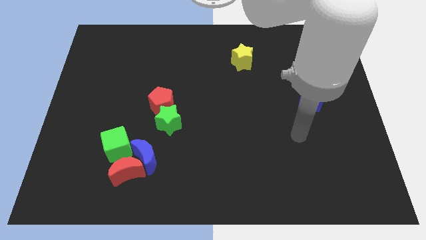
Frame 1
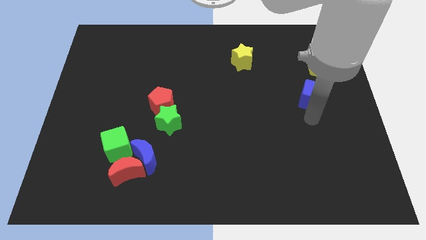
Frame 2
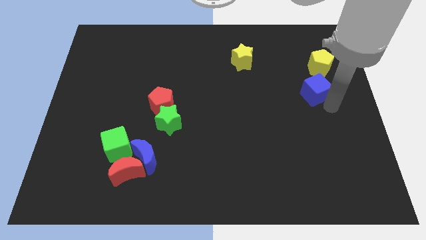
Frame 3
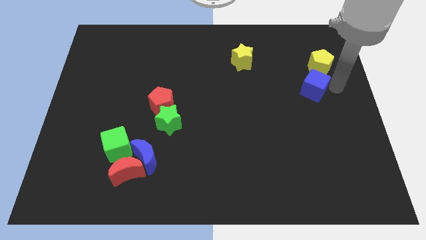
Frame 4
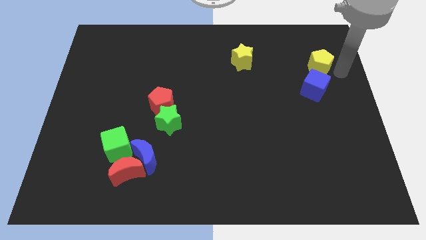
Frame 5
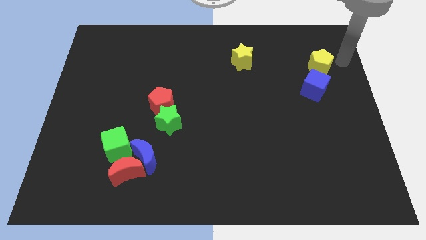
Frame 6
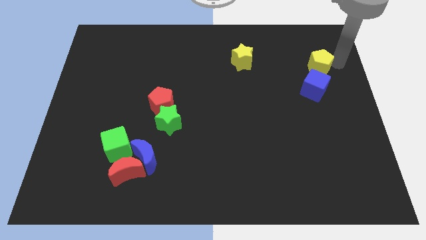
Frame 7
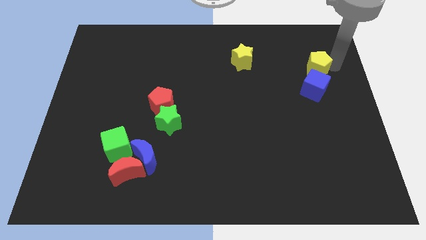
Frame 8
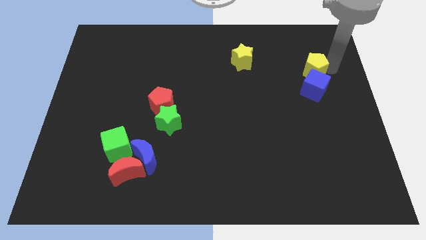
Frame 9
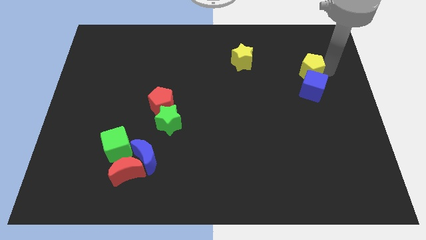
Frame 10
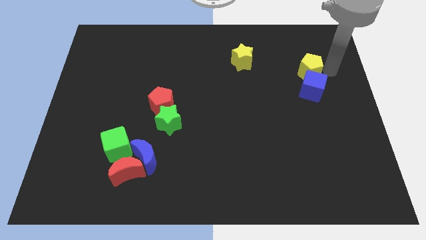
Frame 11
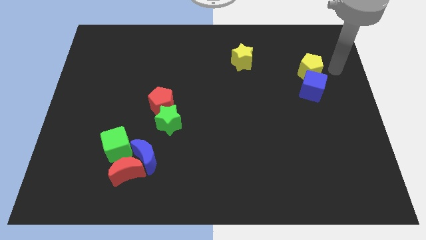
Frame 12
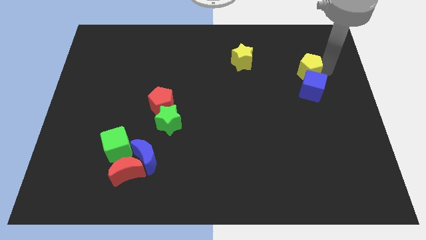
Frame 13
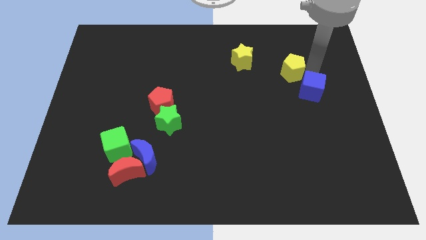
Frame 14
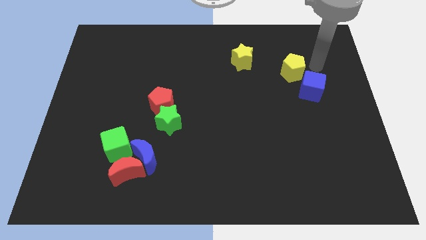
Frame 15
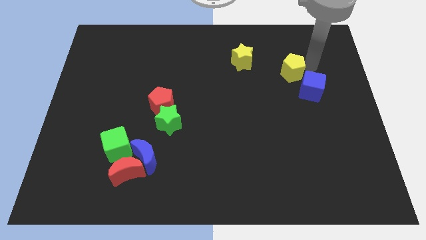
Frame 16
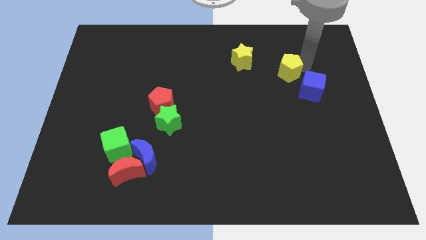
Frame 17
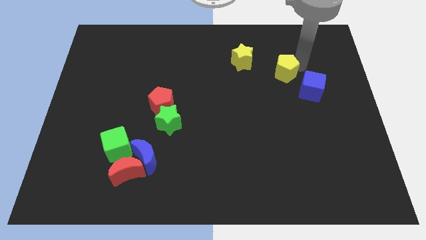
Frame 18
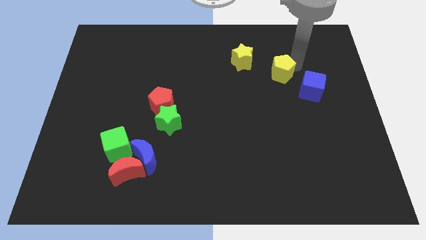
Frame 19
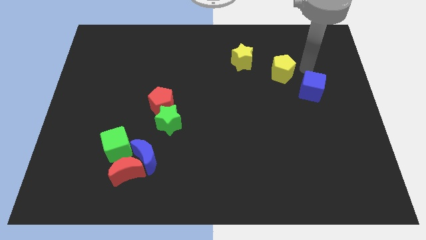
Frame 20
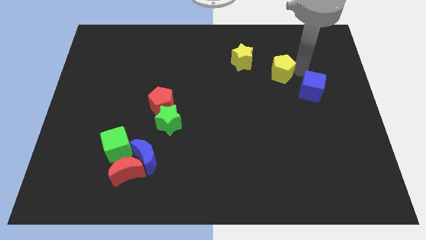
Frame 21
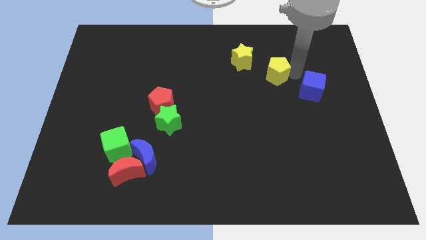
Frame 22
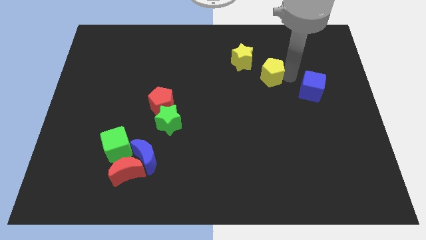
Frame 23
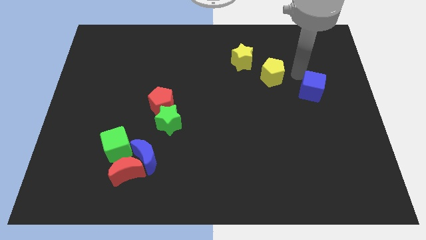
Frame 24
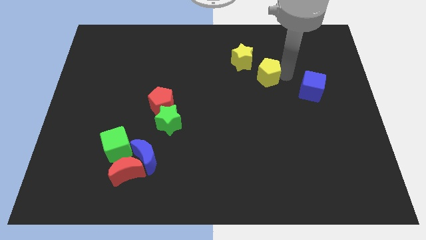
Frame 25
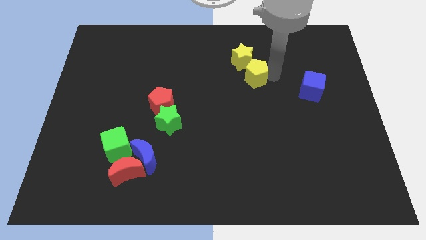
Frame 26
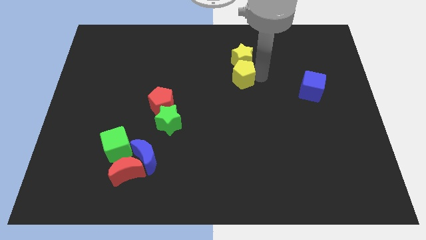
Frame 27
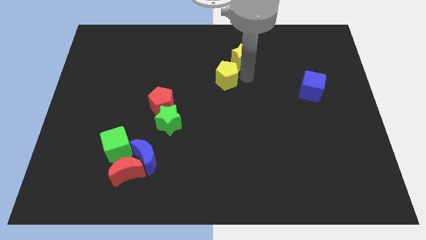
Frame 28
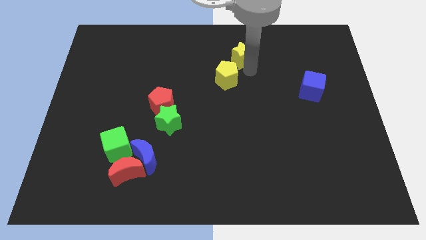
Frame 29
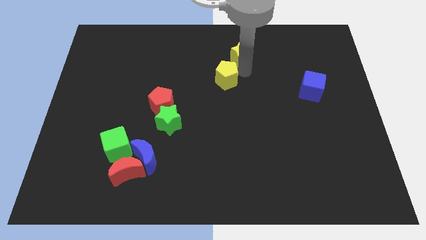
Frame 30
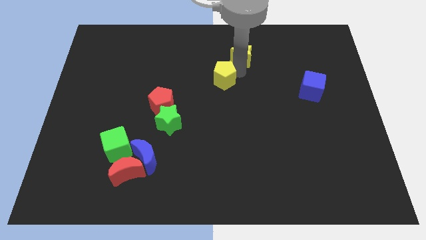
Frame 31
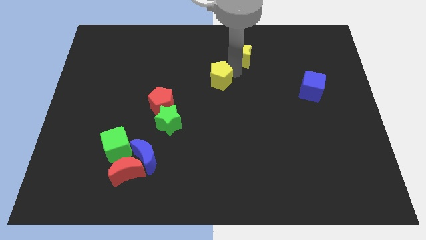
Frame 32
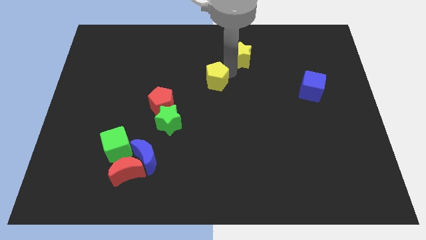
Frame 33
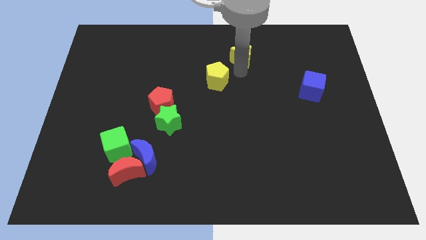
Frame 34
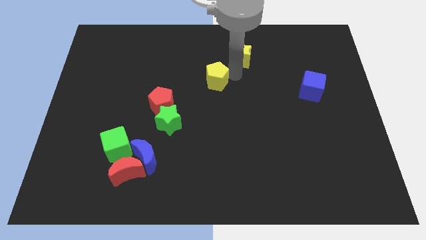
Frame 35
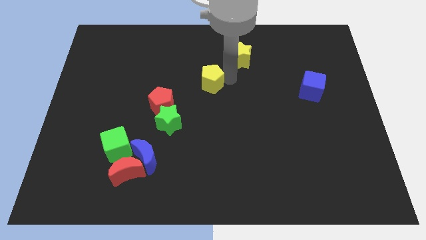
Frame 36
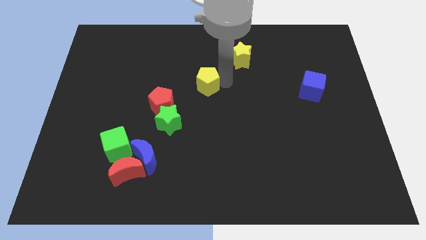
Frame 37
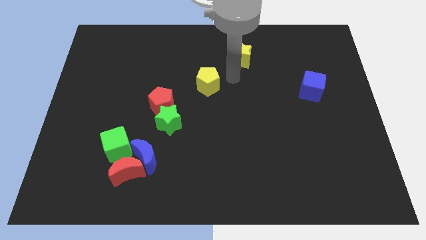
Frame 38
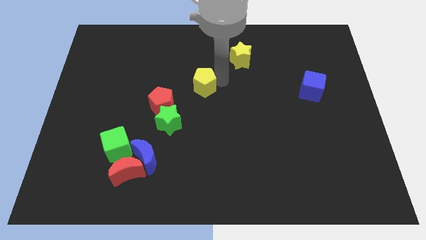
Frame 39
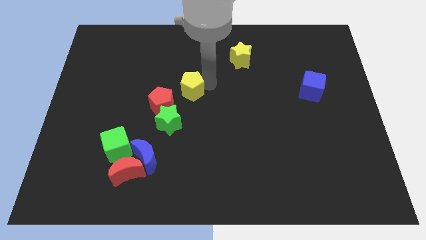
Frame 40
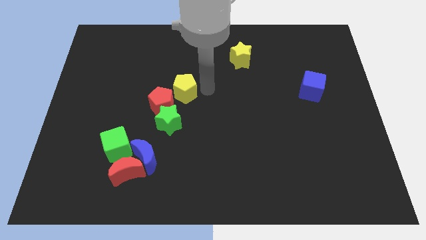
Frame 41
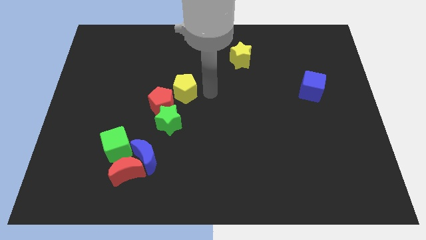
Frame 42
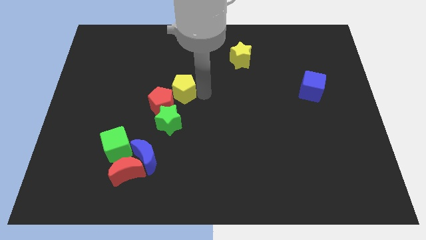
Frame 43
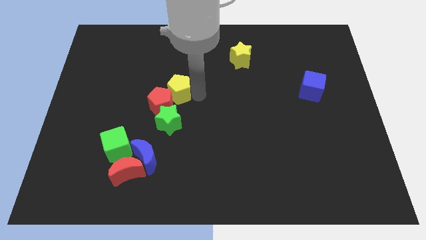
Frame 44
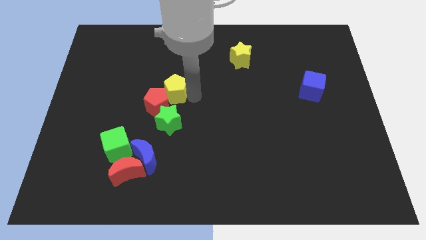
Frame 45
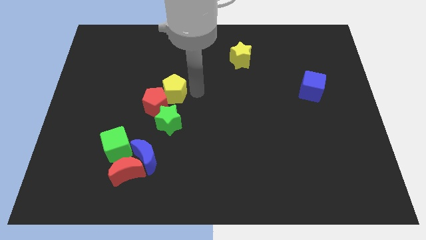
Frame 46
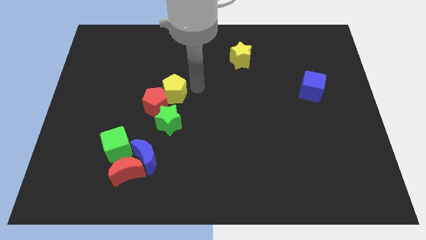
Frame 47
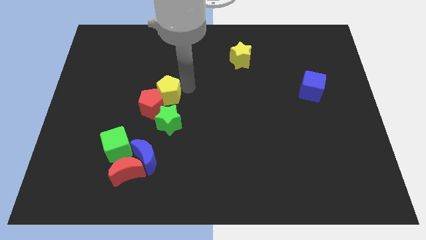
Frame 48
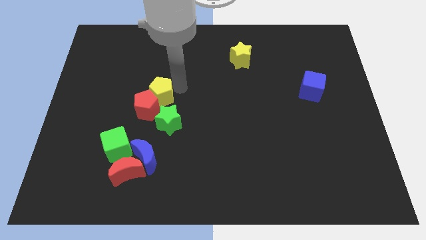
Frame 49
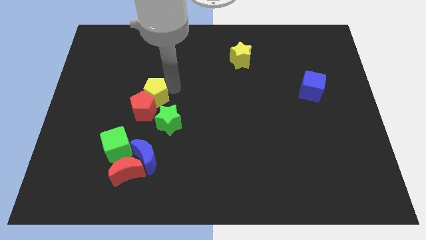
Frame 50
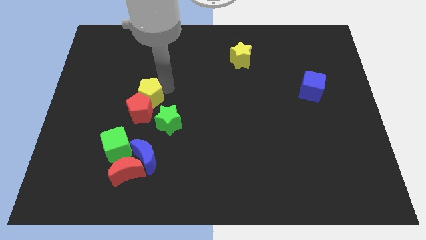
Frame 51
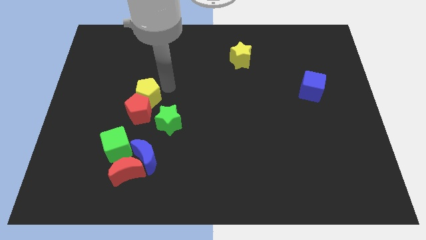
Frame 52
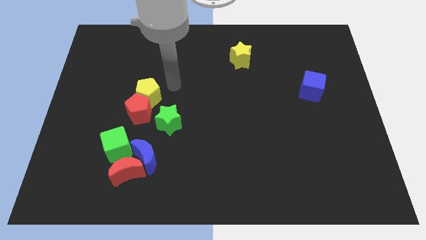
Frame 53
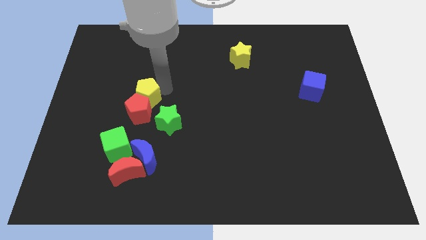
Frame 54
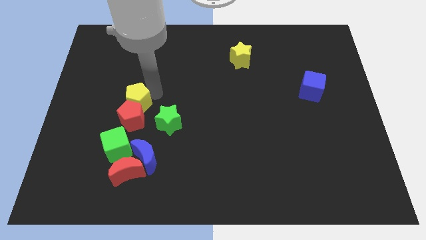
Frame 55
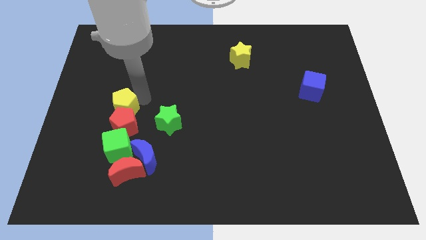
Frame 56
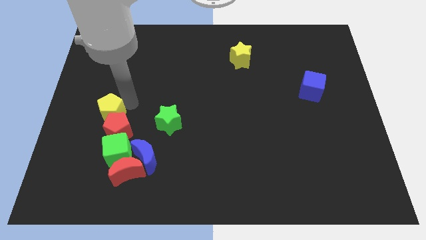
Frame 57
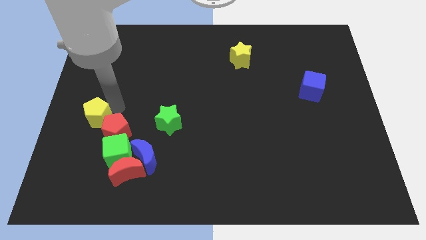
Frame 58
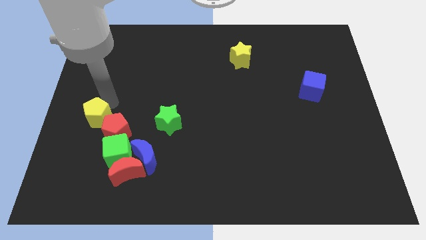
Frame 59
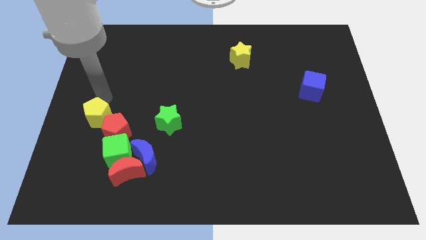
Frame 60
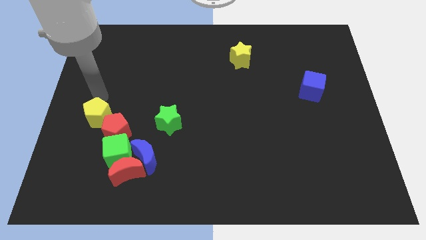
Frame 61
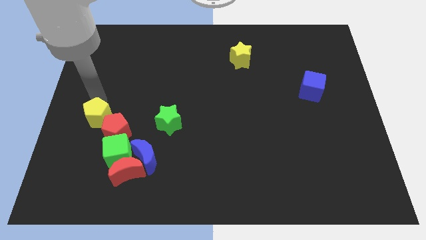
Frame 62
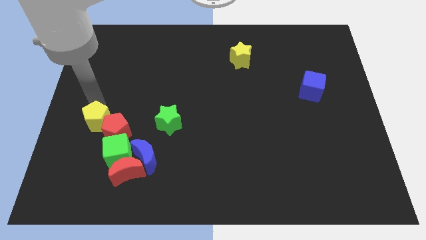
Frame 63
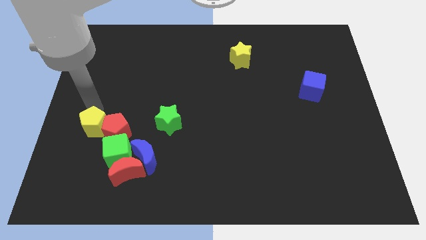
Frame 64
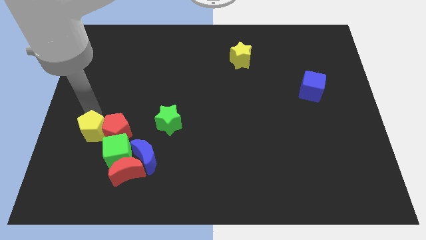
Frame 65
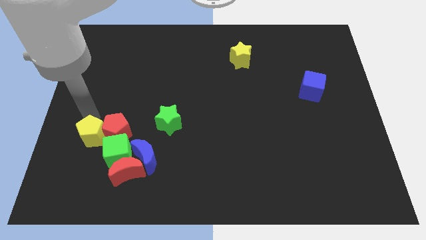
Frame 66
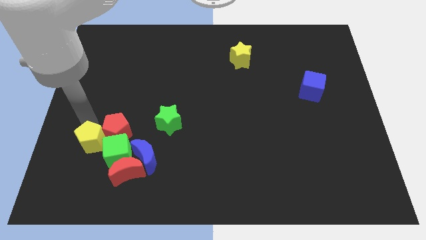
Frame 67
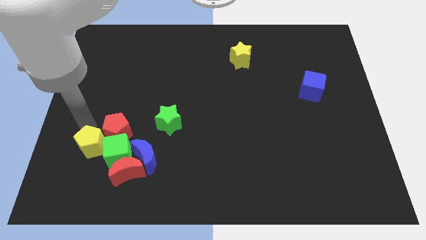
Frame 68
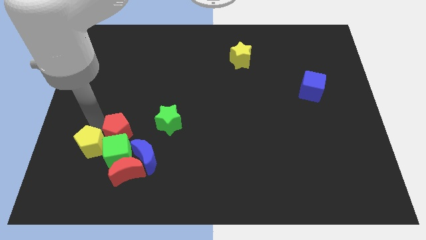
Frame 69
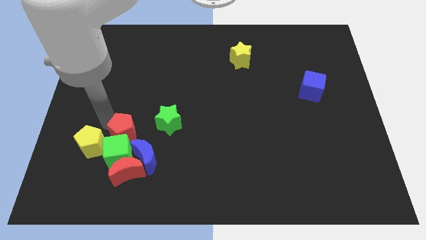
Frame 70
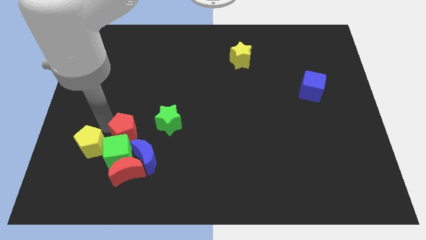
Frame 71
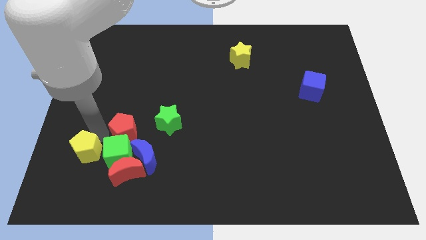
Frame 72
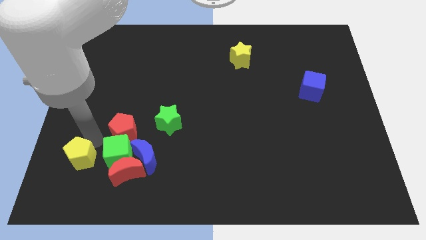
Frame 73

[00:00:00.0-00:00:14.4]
put the yellow pentagon to the left side of the red moon

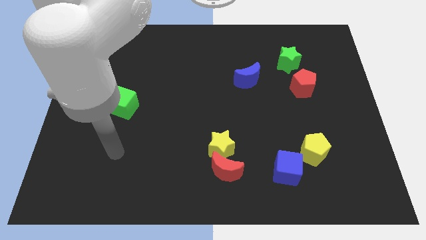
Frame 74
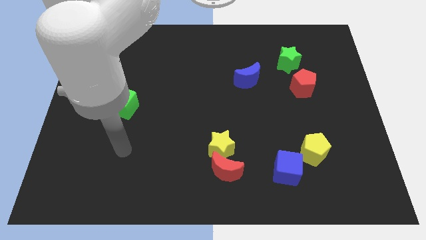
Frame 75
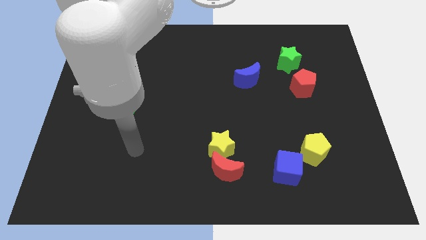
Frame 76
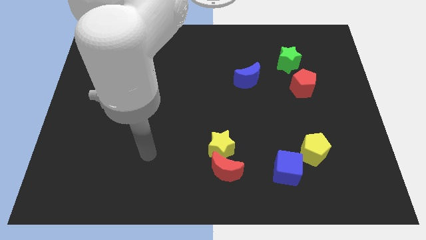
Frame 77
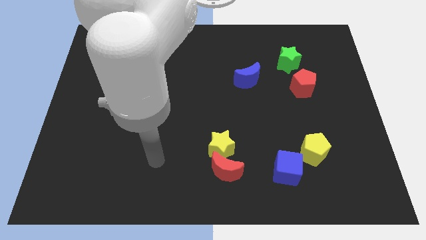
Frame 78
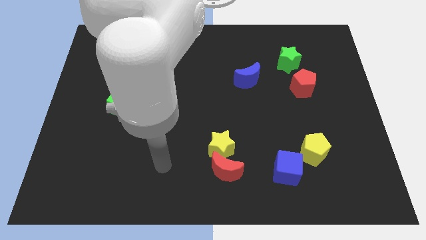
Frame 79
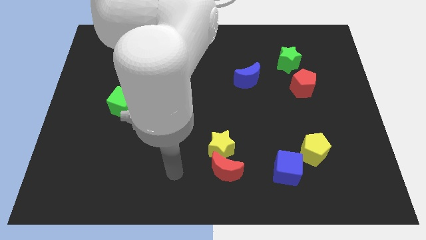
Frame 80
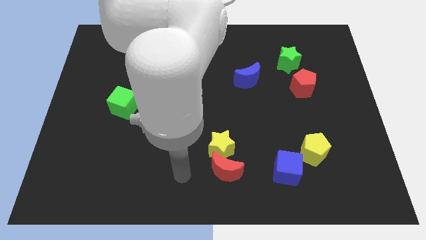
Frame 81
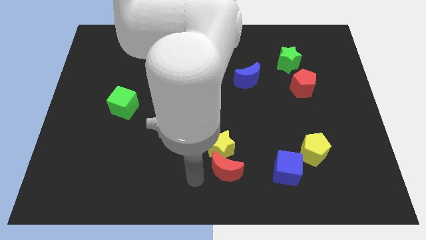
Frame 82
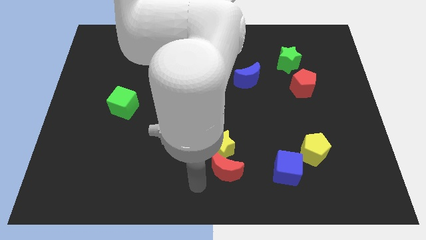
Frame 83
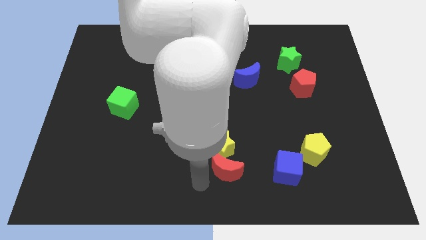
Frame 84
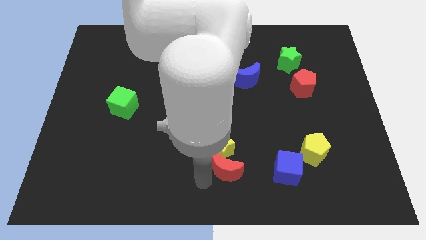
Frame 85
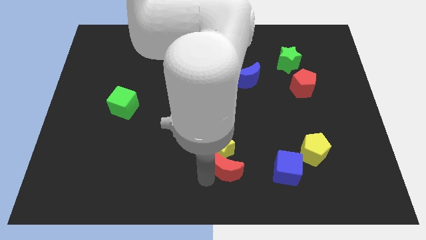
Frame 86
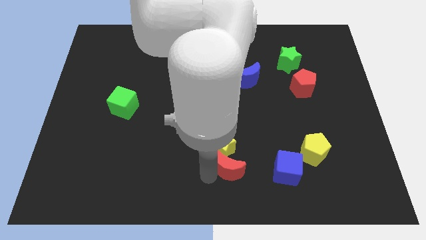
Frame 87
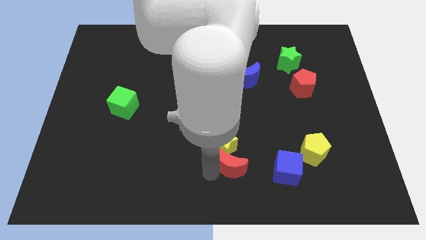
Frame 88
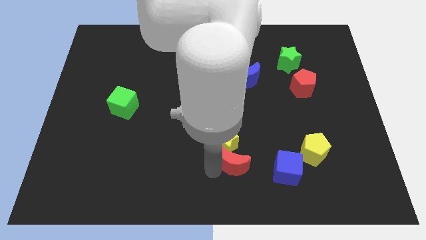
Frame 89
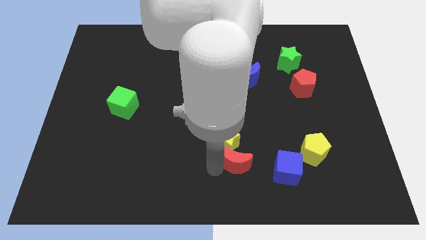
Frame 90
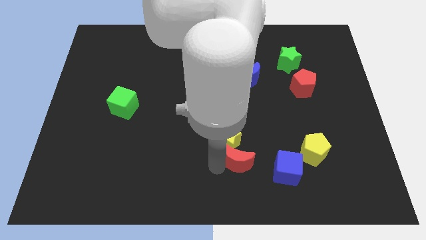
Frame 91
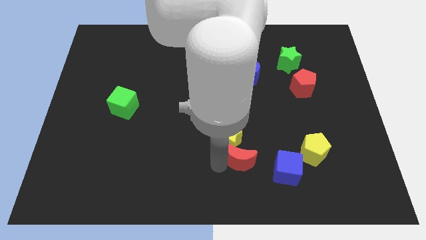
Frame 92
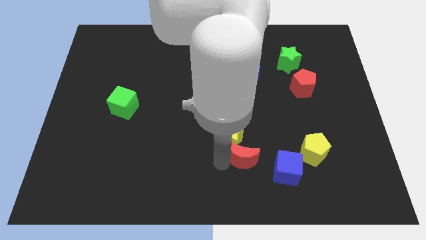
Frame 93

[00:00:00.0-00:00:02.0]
push the red moon just left of the yellow pentagon
